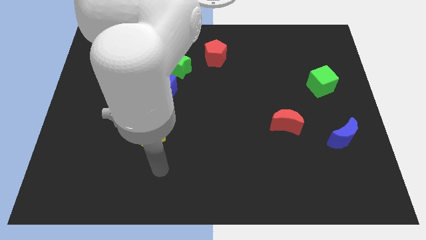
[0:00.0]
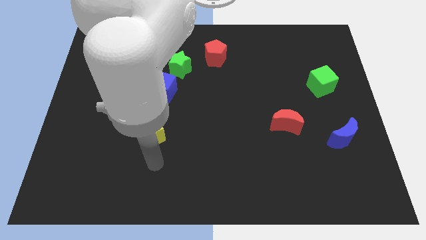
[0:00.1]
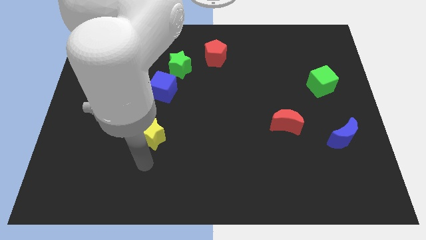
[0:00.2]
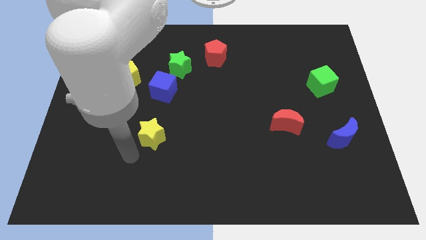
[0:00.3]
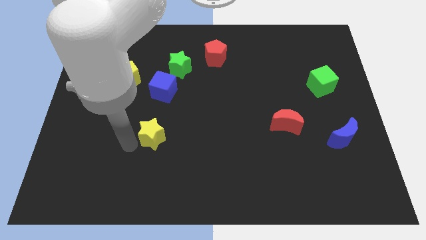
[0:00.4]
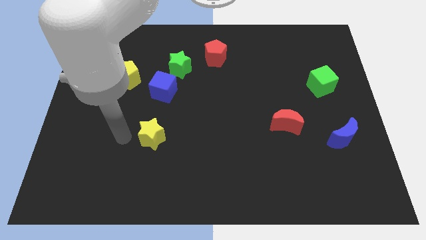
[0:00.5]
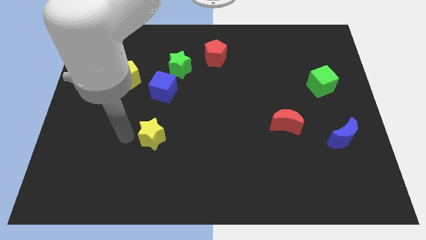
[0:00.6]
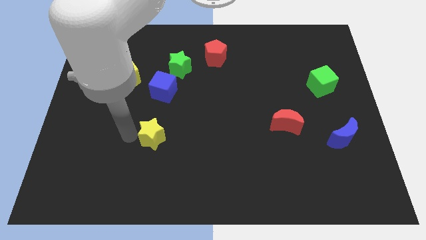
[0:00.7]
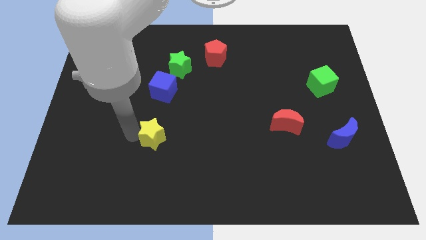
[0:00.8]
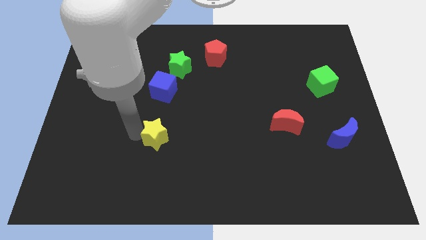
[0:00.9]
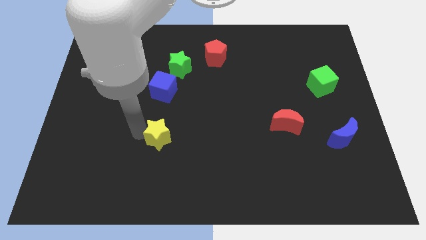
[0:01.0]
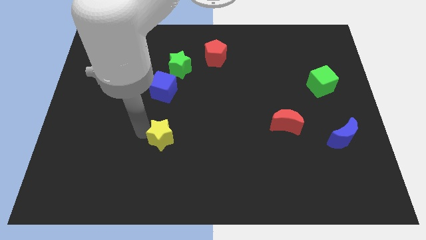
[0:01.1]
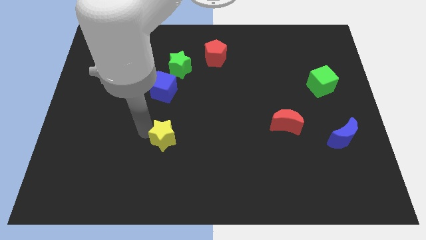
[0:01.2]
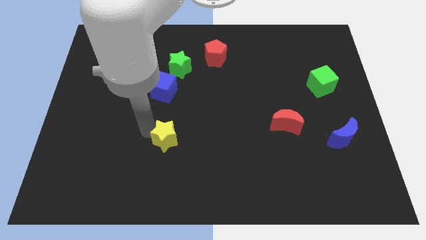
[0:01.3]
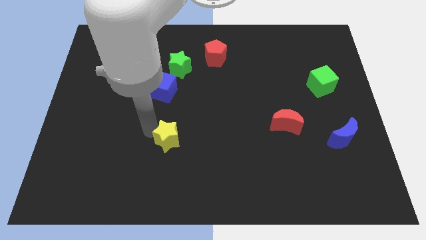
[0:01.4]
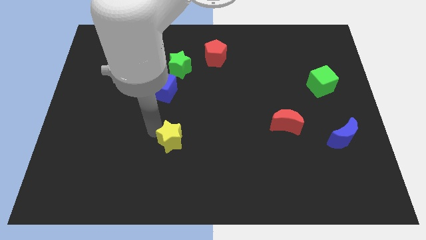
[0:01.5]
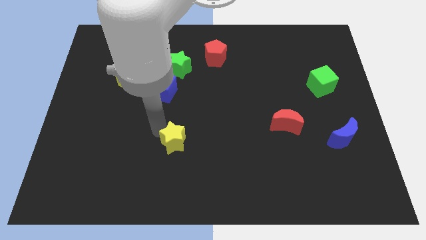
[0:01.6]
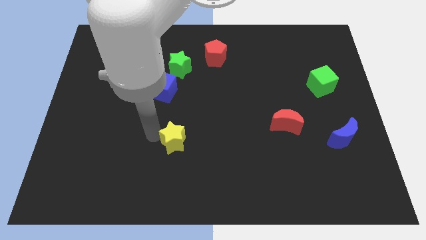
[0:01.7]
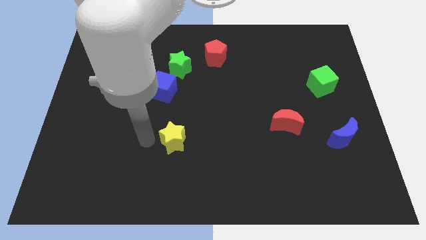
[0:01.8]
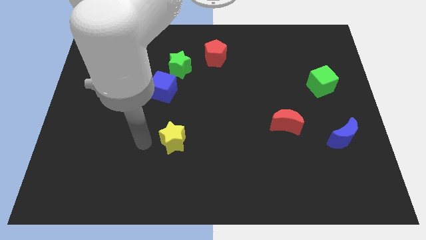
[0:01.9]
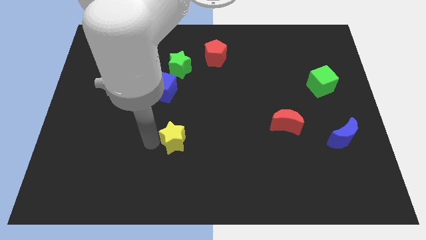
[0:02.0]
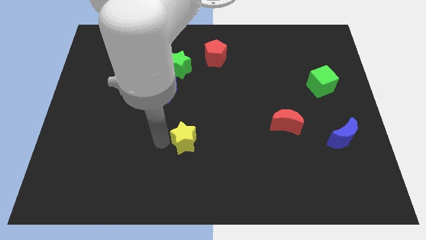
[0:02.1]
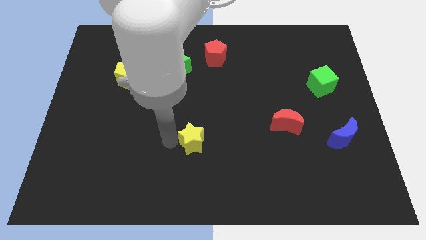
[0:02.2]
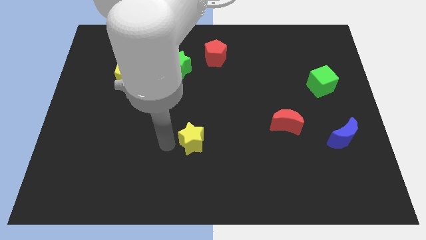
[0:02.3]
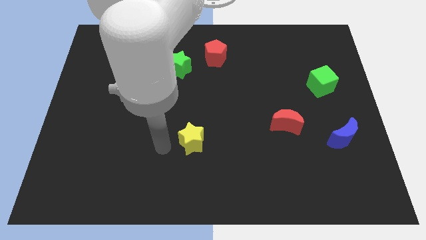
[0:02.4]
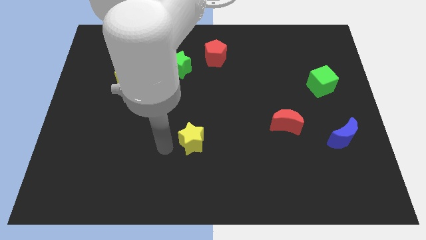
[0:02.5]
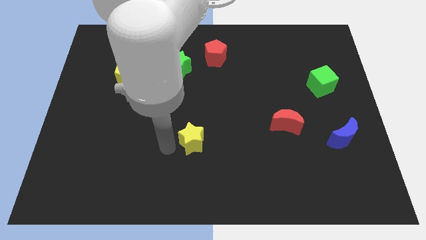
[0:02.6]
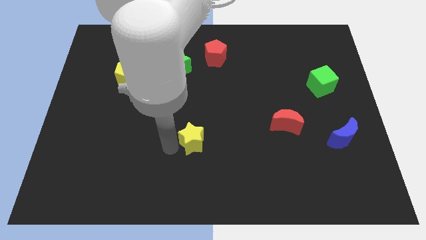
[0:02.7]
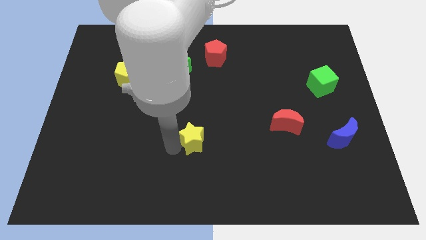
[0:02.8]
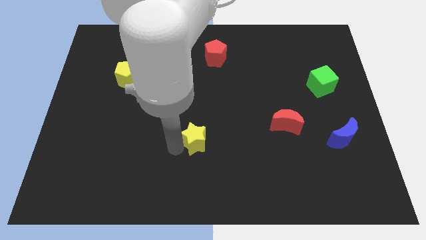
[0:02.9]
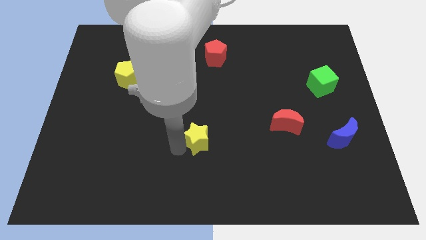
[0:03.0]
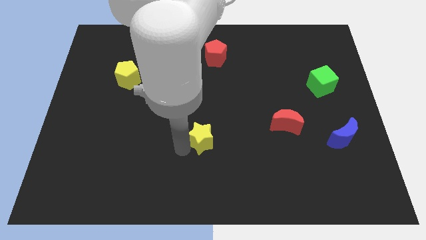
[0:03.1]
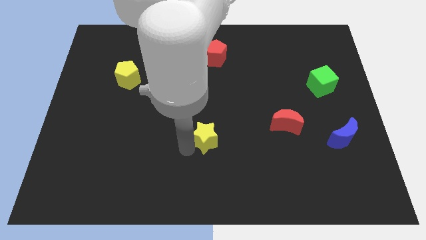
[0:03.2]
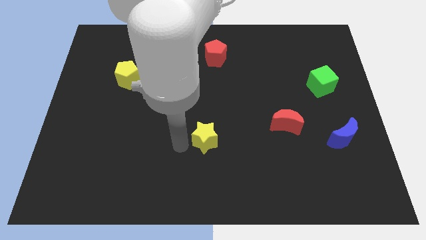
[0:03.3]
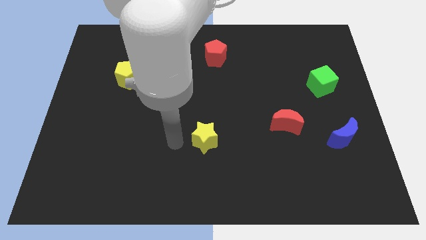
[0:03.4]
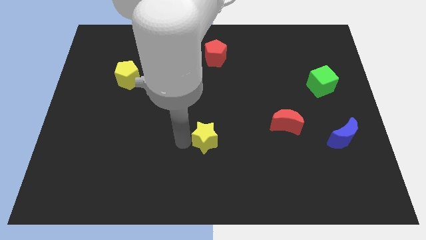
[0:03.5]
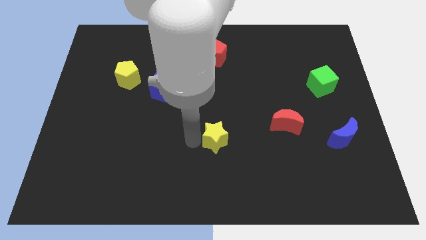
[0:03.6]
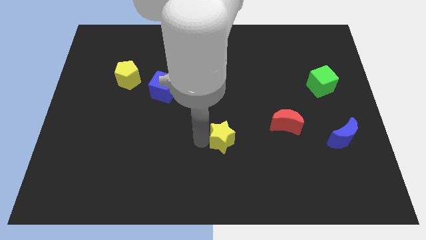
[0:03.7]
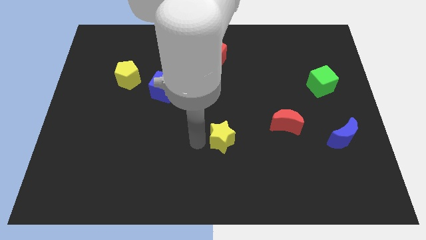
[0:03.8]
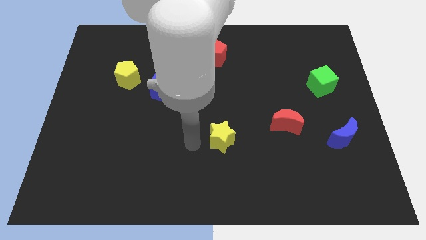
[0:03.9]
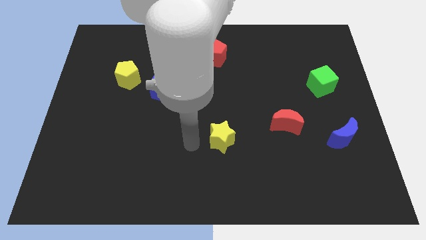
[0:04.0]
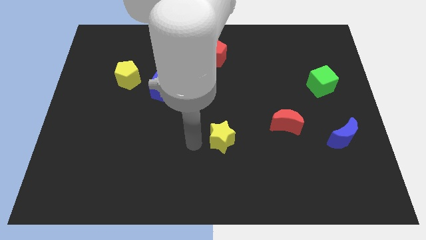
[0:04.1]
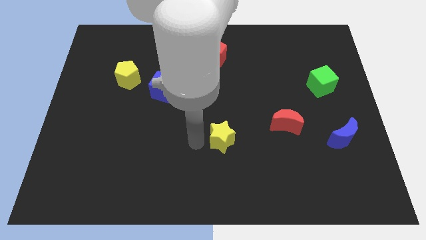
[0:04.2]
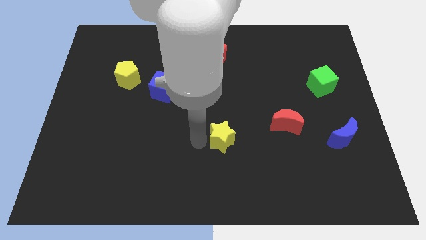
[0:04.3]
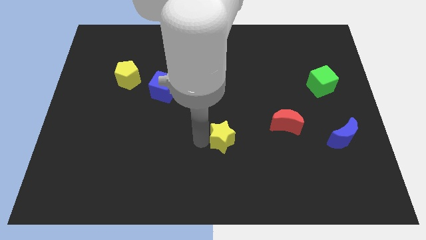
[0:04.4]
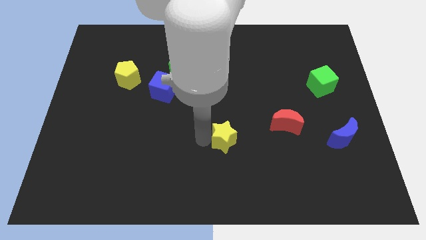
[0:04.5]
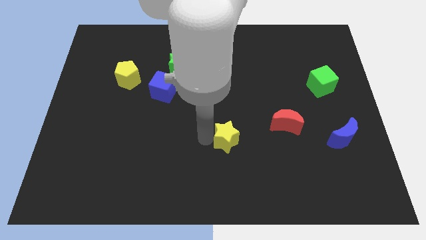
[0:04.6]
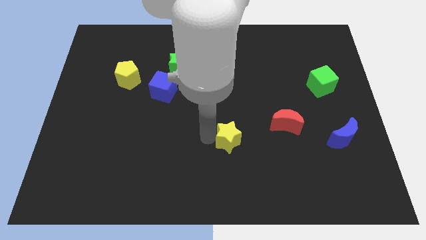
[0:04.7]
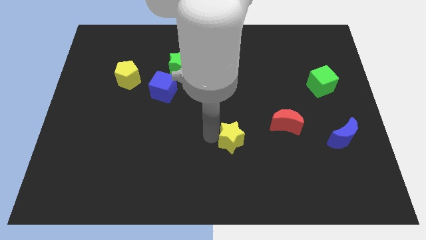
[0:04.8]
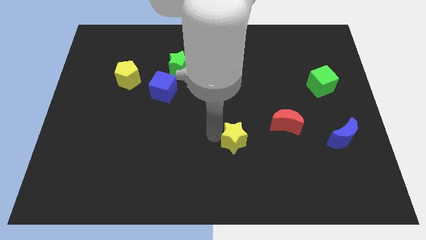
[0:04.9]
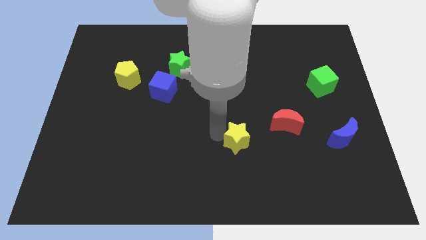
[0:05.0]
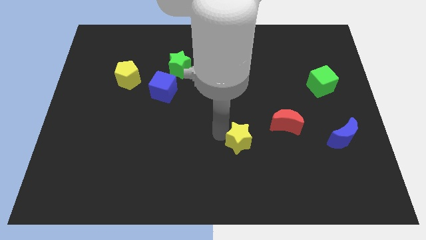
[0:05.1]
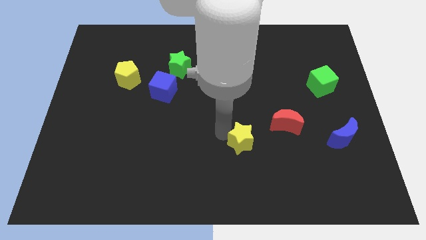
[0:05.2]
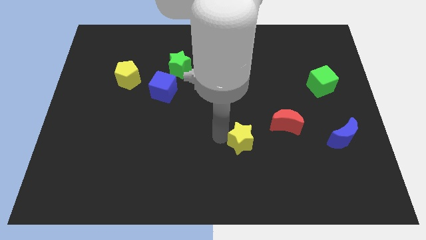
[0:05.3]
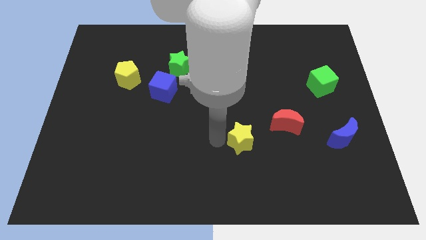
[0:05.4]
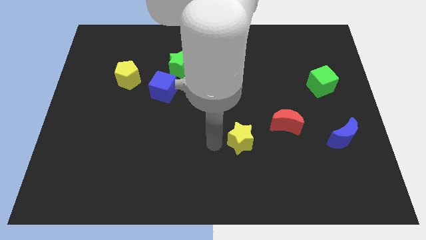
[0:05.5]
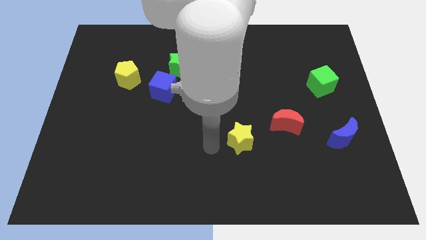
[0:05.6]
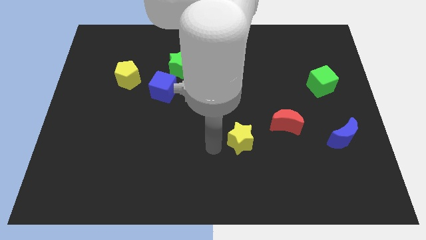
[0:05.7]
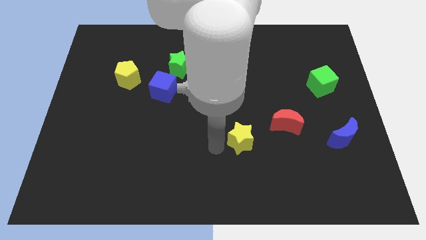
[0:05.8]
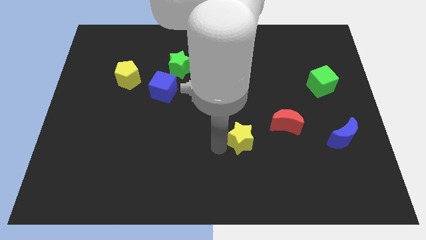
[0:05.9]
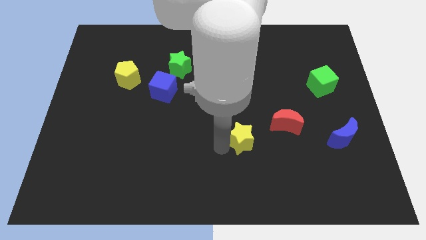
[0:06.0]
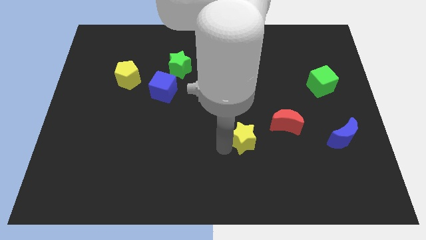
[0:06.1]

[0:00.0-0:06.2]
push the yellow star right

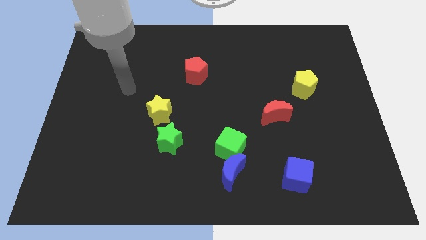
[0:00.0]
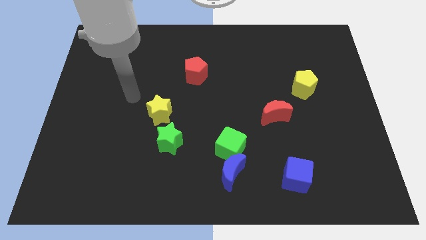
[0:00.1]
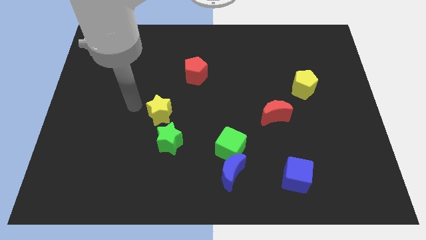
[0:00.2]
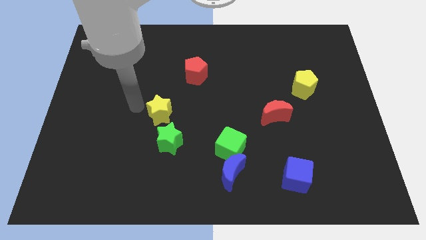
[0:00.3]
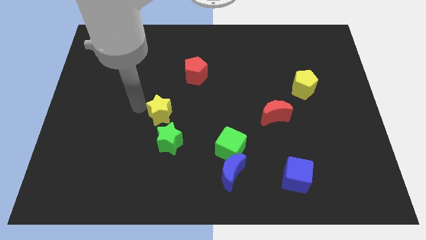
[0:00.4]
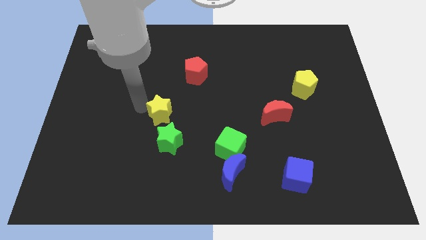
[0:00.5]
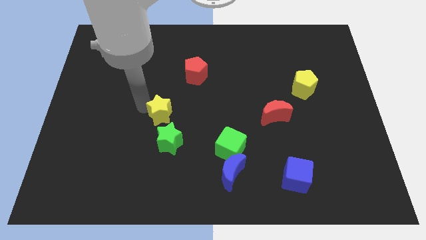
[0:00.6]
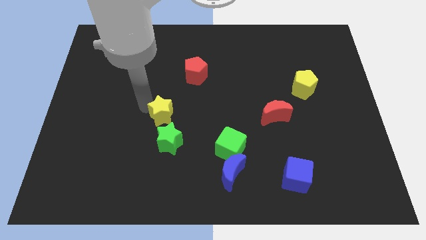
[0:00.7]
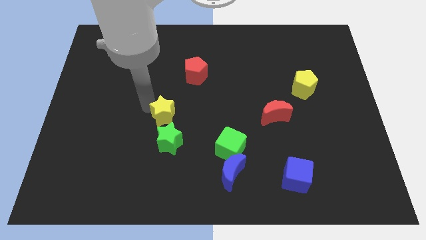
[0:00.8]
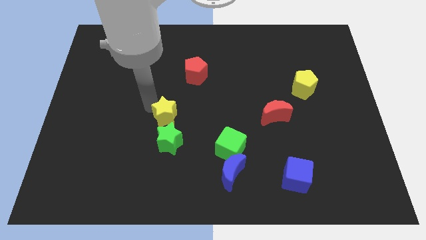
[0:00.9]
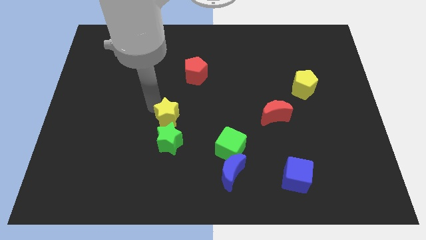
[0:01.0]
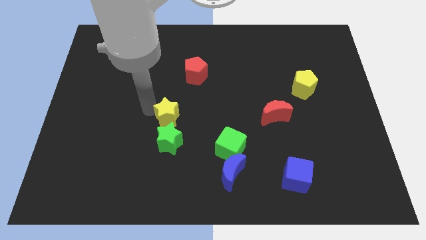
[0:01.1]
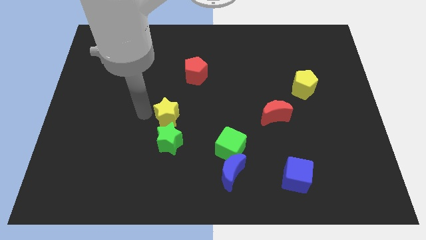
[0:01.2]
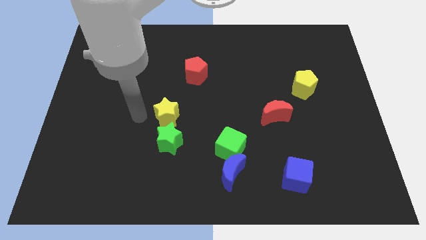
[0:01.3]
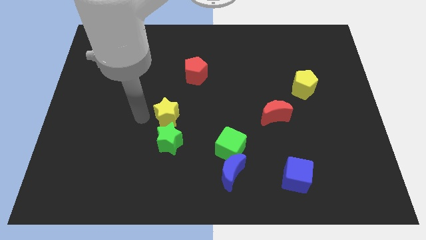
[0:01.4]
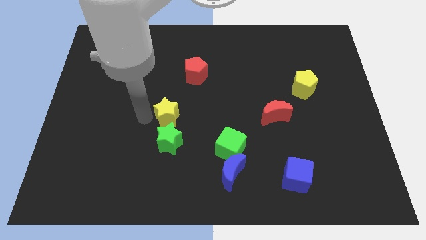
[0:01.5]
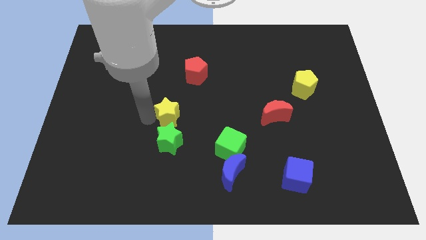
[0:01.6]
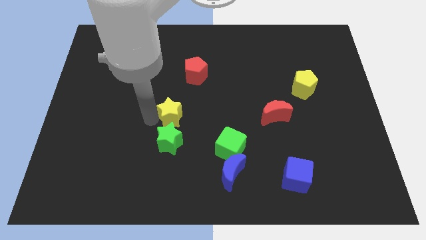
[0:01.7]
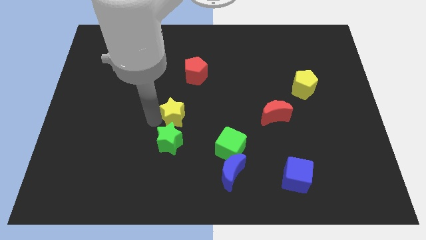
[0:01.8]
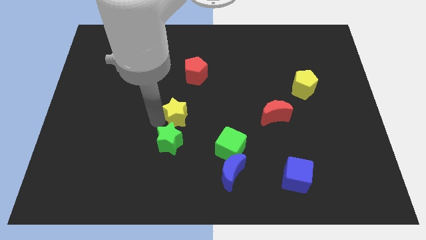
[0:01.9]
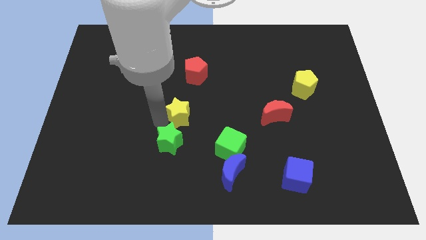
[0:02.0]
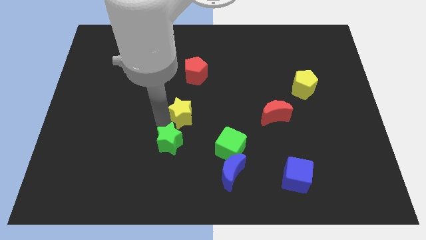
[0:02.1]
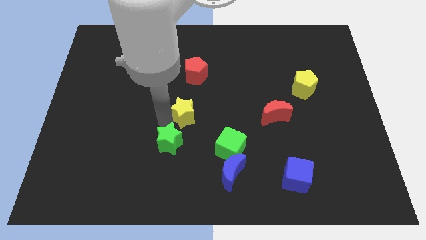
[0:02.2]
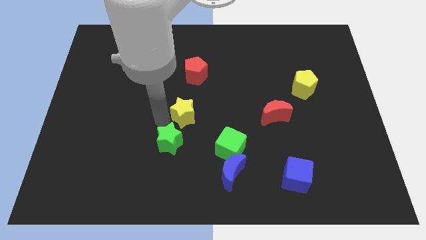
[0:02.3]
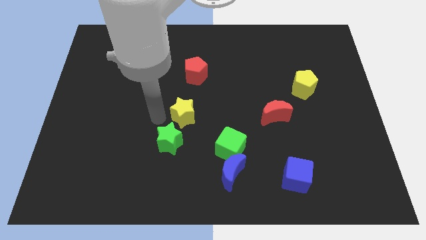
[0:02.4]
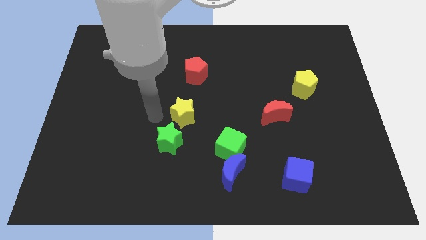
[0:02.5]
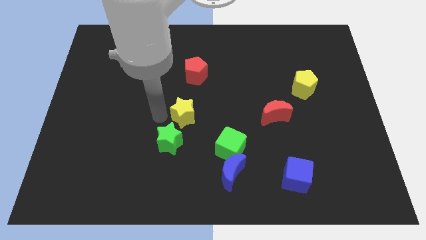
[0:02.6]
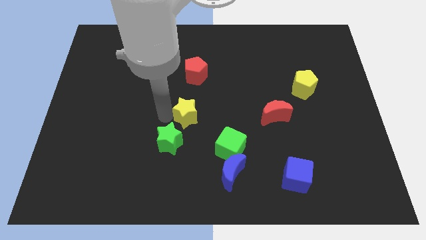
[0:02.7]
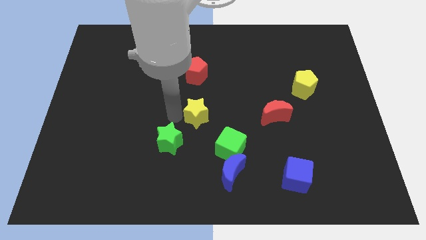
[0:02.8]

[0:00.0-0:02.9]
move the yellow star a bit to the right
